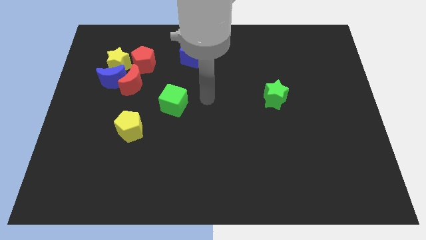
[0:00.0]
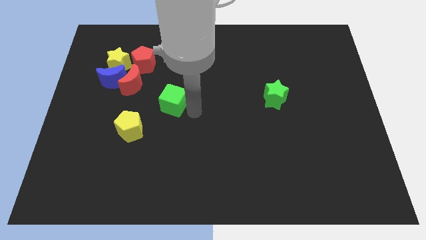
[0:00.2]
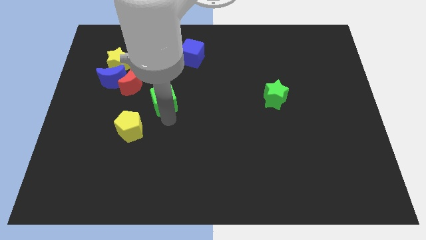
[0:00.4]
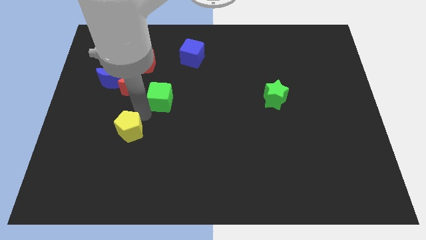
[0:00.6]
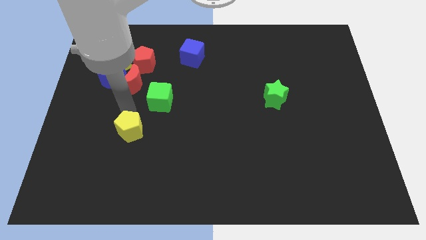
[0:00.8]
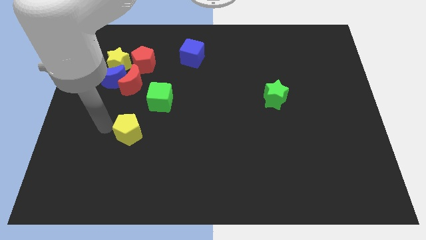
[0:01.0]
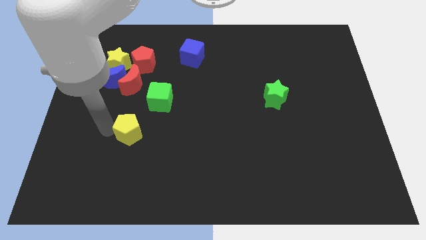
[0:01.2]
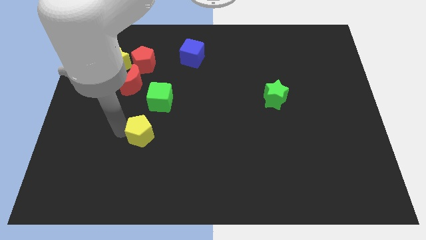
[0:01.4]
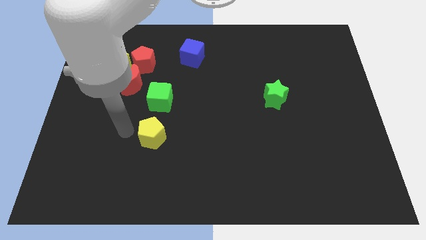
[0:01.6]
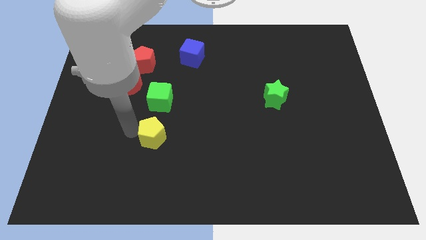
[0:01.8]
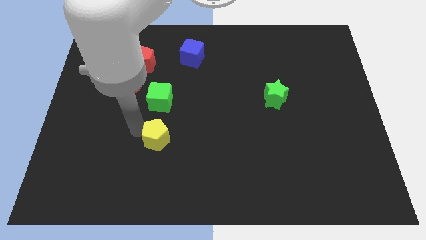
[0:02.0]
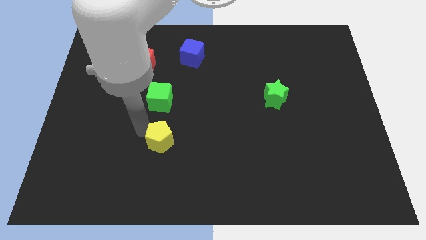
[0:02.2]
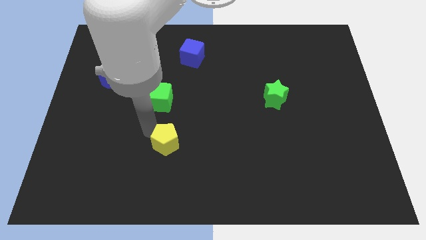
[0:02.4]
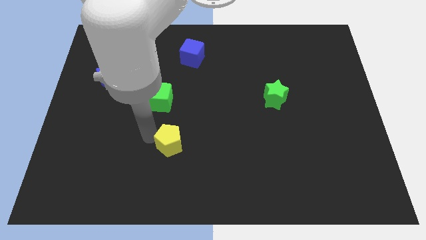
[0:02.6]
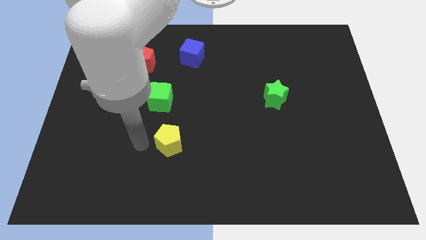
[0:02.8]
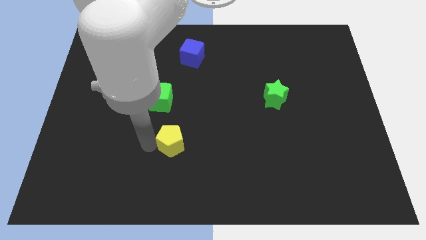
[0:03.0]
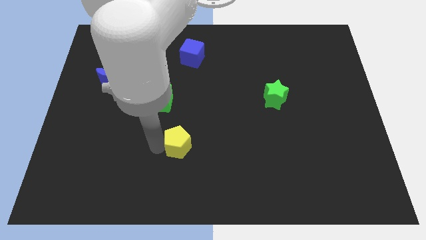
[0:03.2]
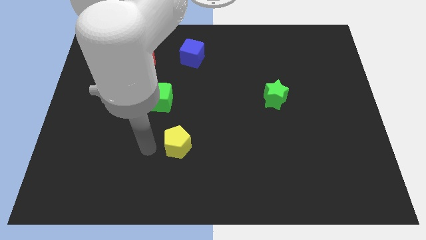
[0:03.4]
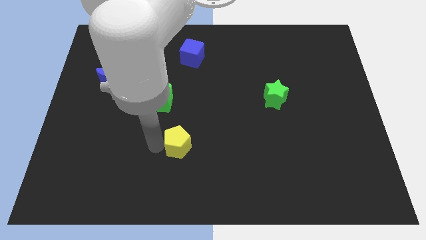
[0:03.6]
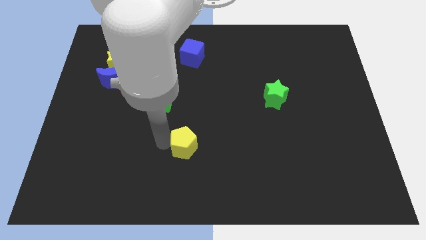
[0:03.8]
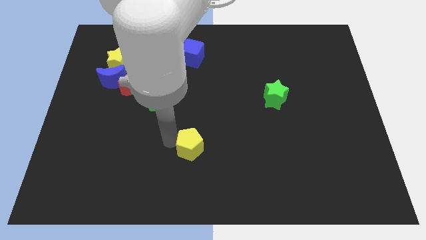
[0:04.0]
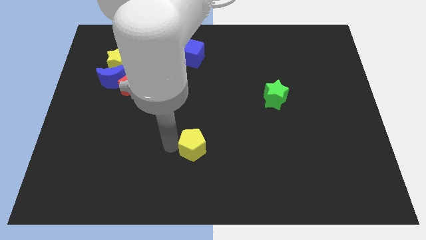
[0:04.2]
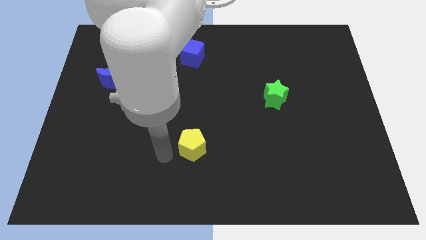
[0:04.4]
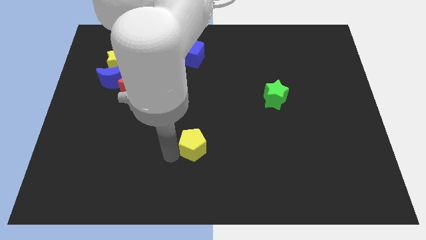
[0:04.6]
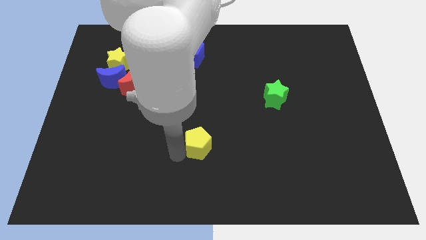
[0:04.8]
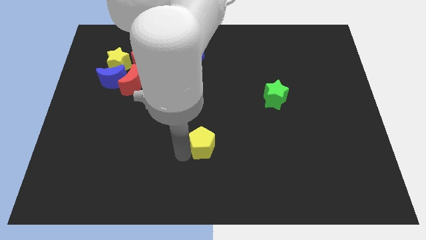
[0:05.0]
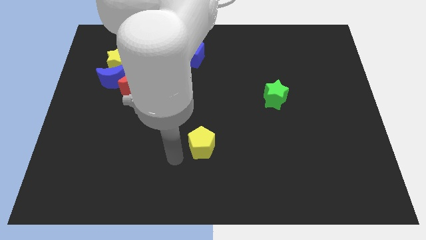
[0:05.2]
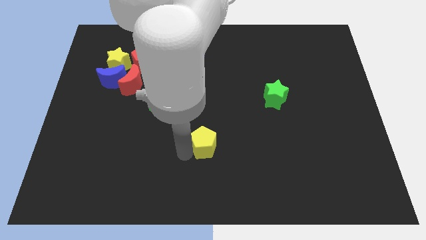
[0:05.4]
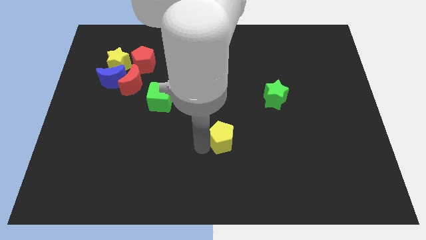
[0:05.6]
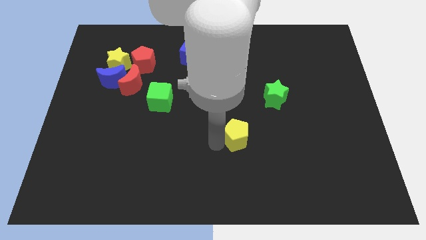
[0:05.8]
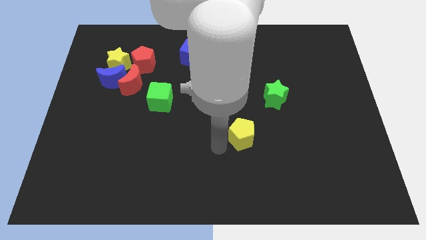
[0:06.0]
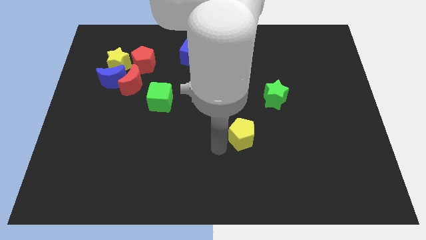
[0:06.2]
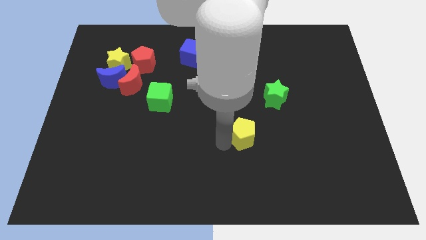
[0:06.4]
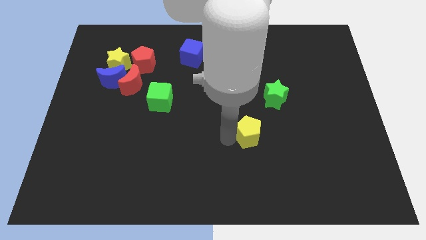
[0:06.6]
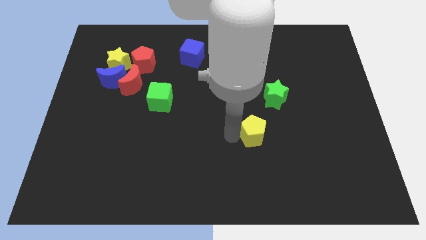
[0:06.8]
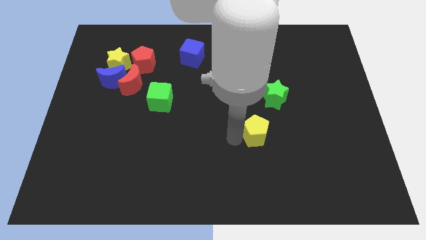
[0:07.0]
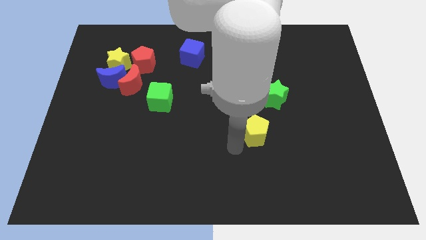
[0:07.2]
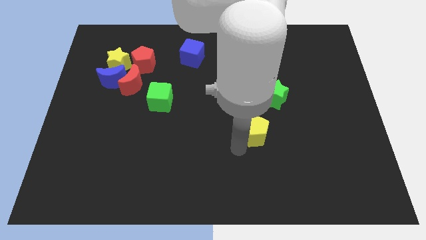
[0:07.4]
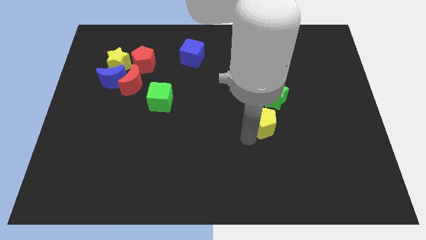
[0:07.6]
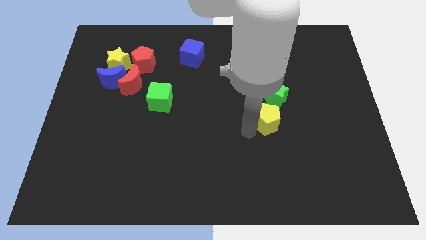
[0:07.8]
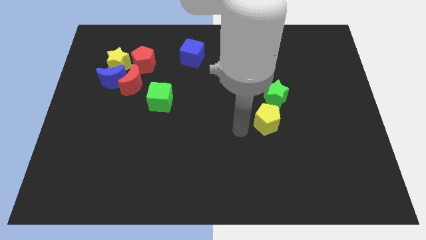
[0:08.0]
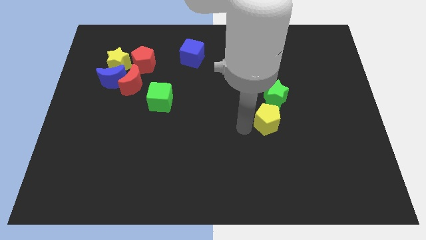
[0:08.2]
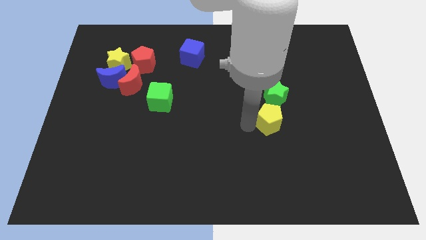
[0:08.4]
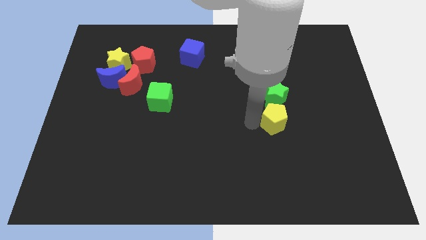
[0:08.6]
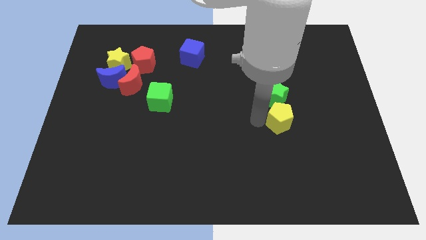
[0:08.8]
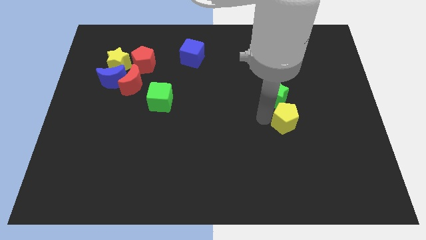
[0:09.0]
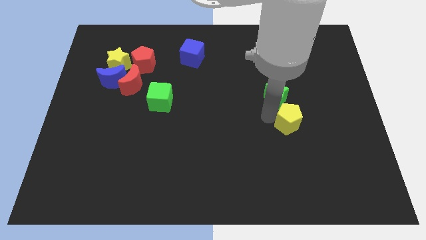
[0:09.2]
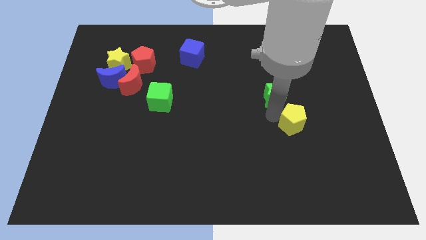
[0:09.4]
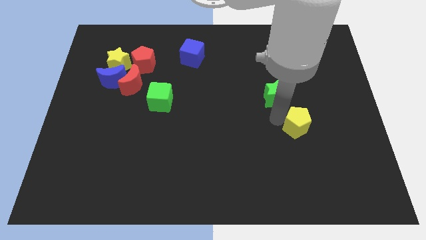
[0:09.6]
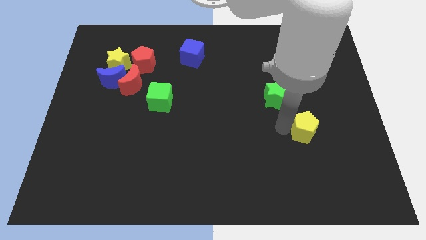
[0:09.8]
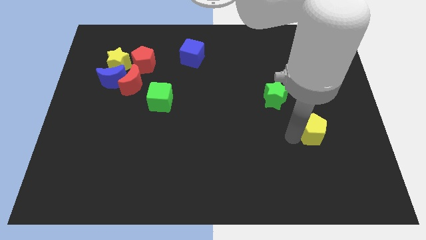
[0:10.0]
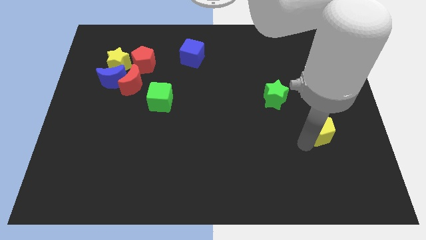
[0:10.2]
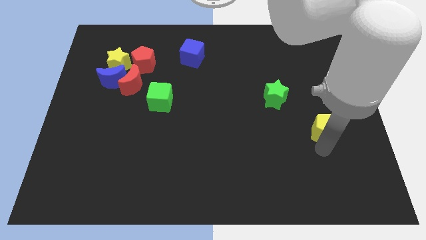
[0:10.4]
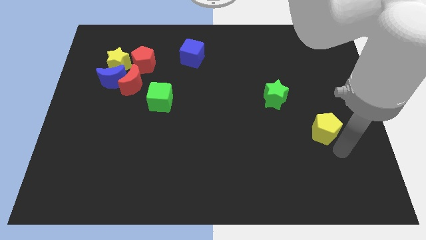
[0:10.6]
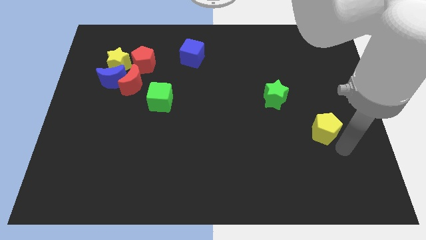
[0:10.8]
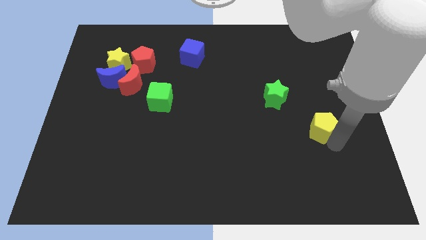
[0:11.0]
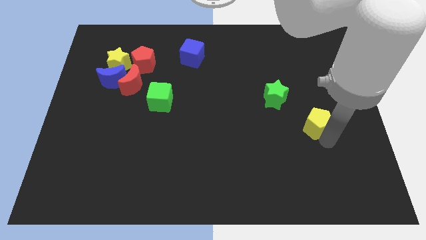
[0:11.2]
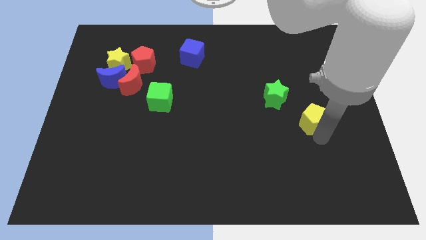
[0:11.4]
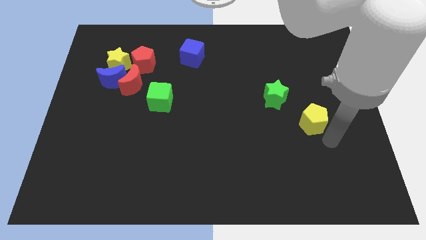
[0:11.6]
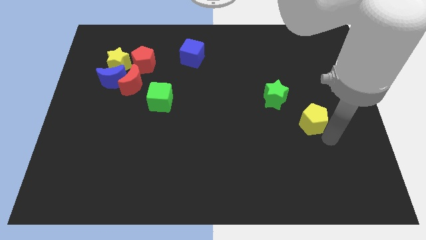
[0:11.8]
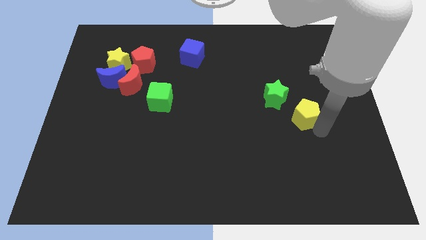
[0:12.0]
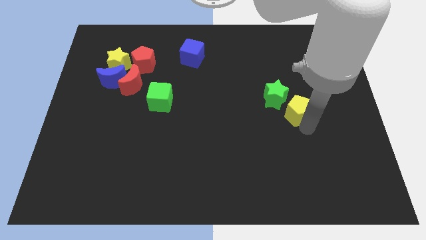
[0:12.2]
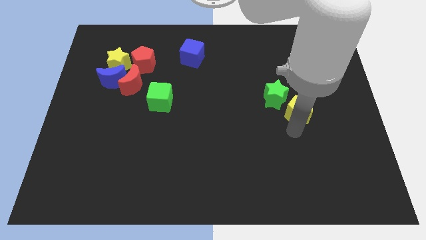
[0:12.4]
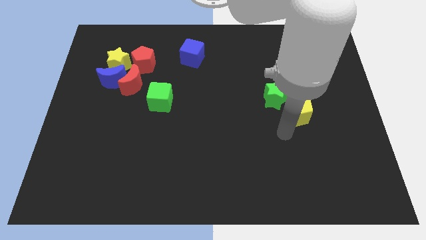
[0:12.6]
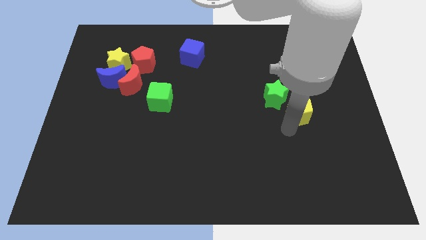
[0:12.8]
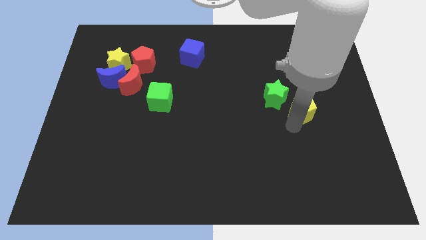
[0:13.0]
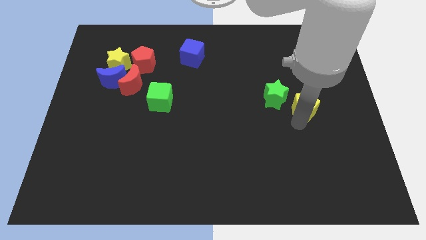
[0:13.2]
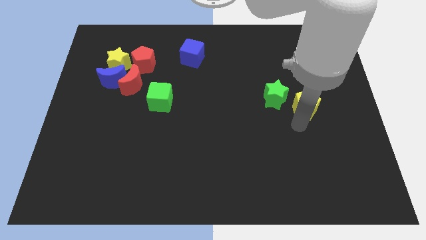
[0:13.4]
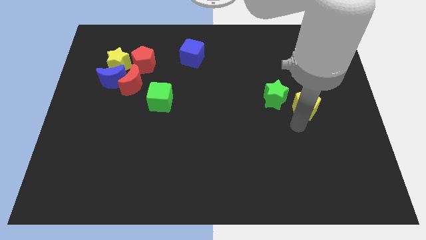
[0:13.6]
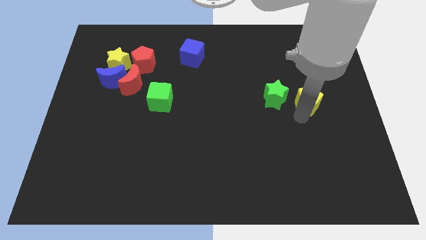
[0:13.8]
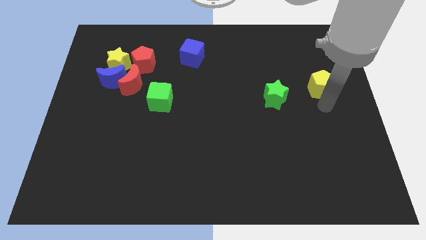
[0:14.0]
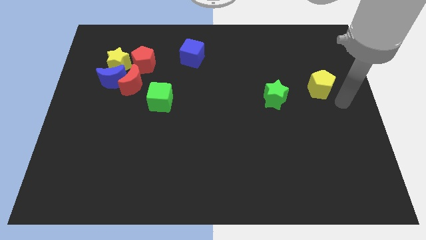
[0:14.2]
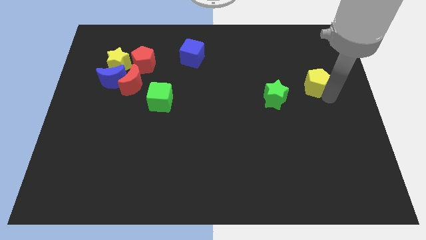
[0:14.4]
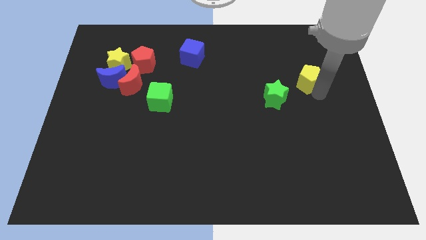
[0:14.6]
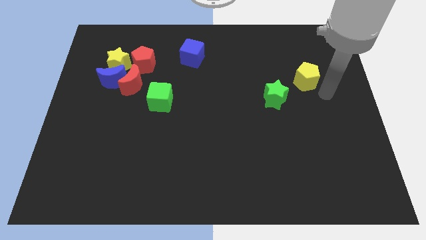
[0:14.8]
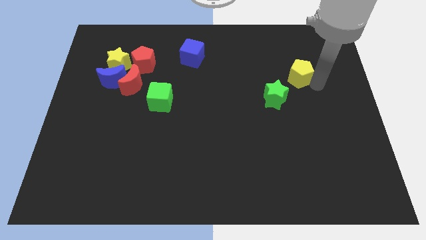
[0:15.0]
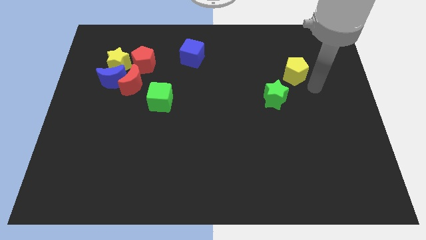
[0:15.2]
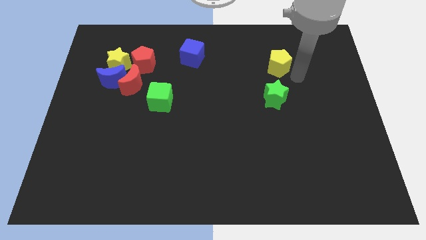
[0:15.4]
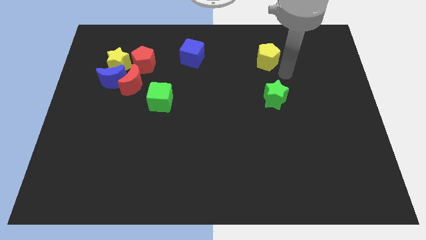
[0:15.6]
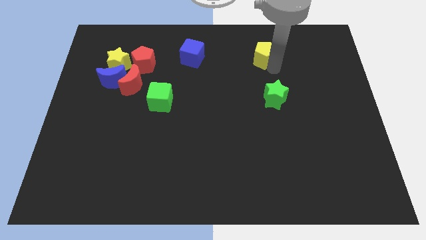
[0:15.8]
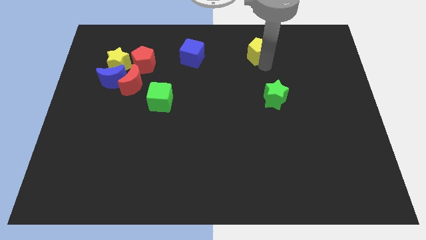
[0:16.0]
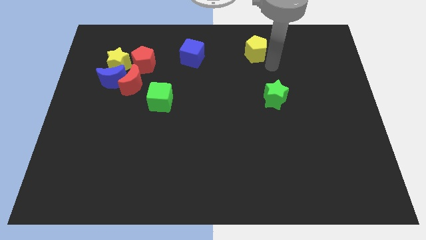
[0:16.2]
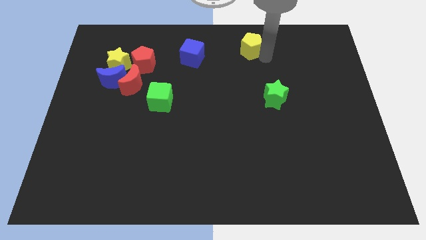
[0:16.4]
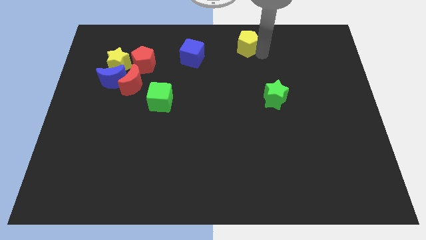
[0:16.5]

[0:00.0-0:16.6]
move the yellow pentagon to the top
